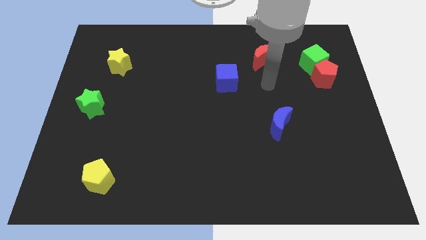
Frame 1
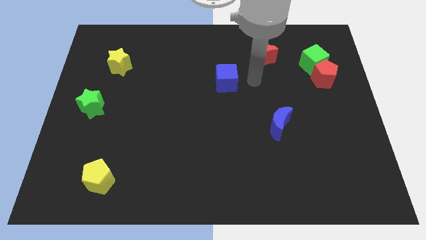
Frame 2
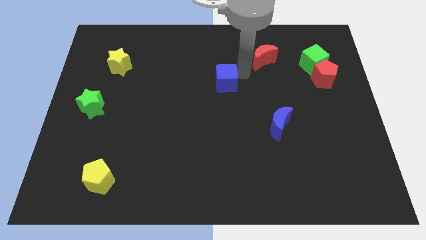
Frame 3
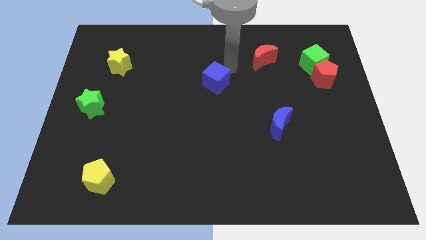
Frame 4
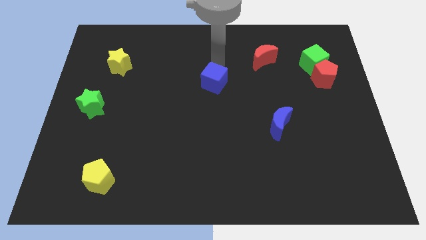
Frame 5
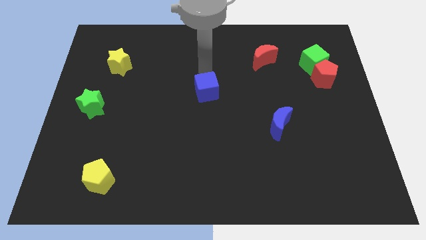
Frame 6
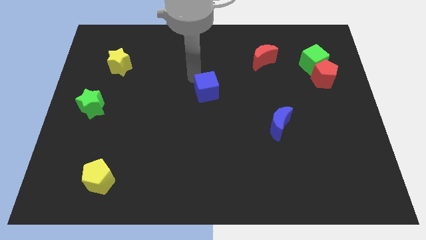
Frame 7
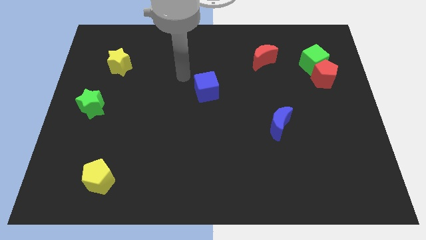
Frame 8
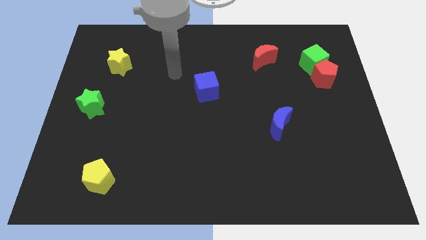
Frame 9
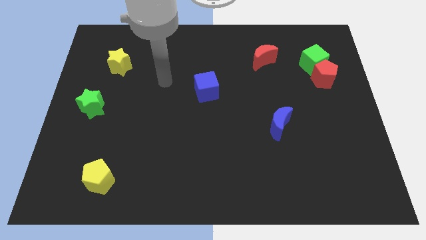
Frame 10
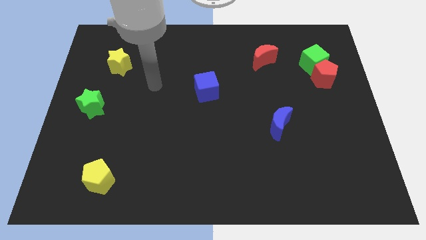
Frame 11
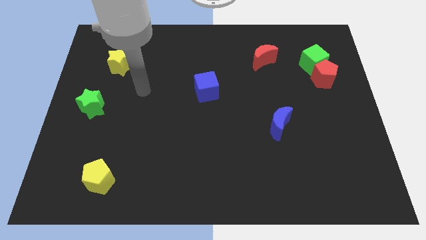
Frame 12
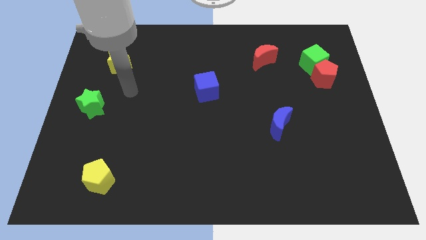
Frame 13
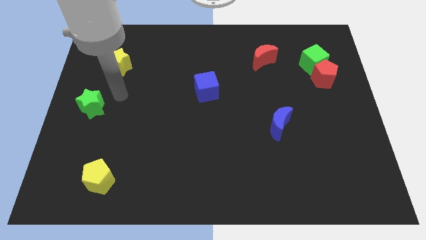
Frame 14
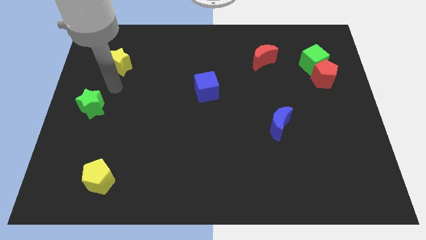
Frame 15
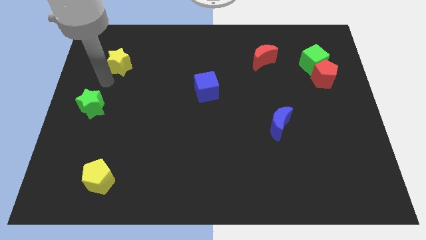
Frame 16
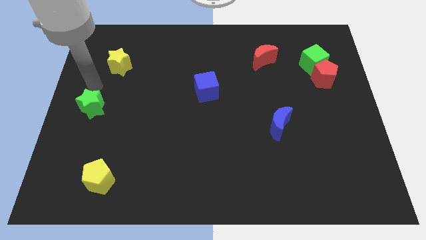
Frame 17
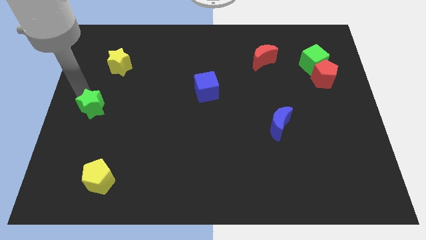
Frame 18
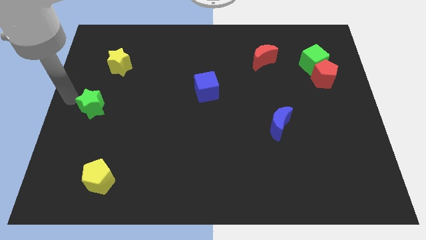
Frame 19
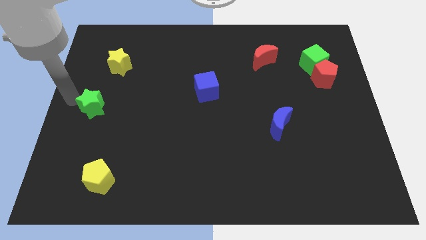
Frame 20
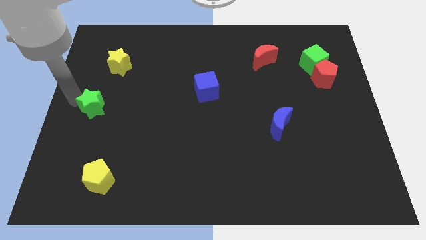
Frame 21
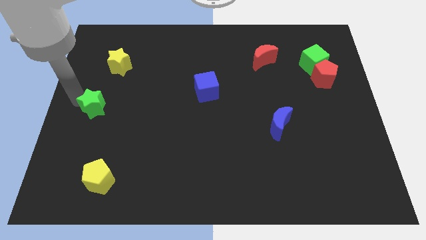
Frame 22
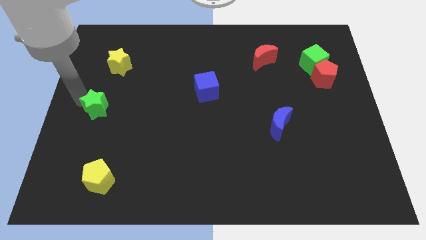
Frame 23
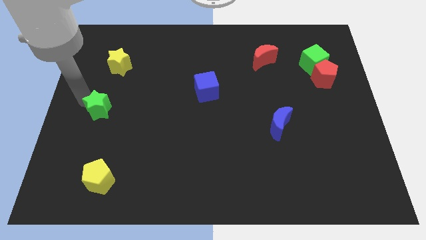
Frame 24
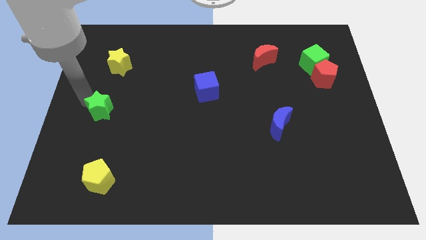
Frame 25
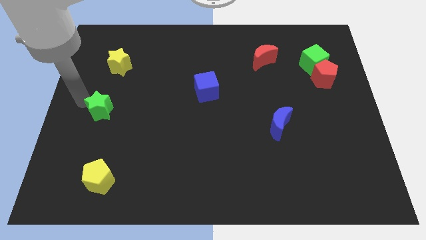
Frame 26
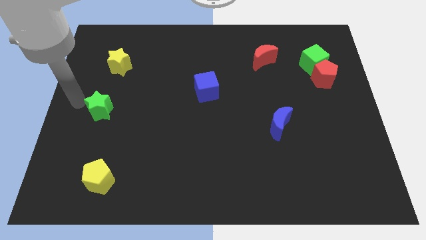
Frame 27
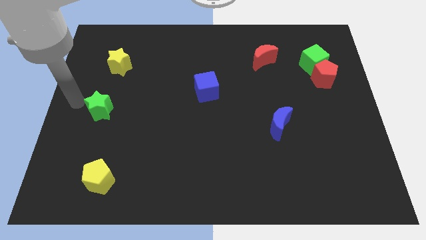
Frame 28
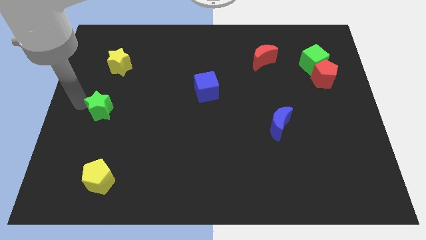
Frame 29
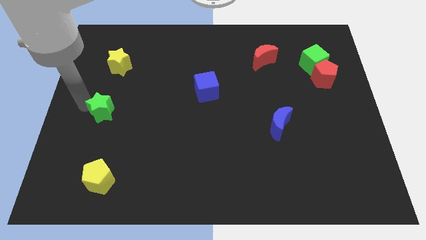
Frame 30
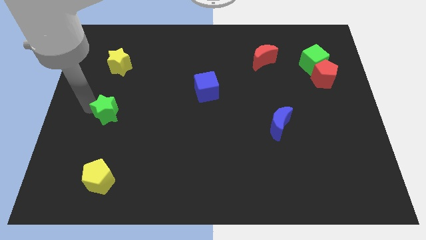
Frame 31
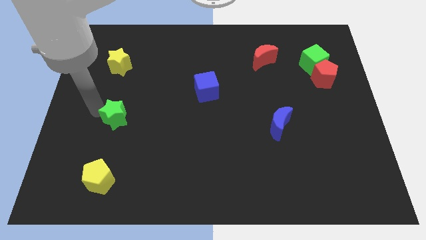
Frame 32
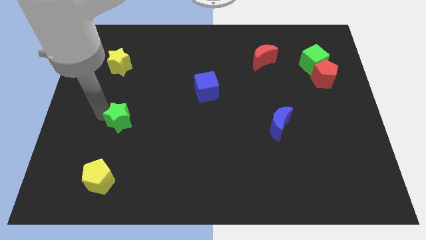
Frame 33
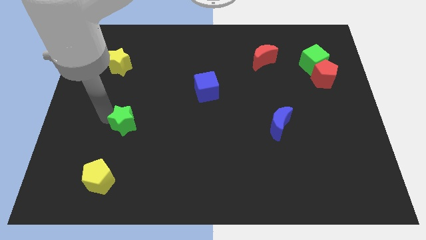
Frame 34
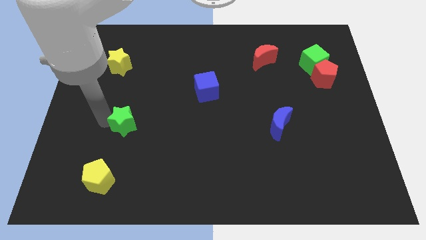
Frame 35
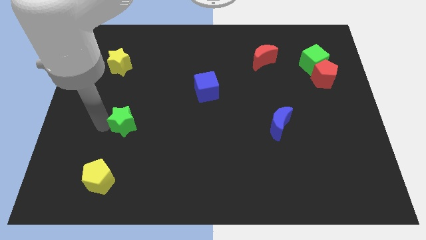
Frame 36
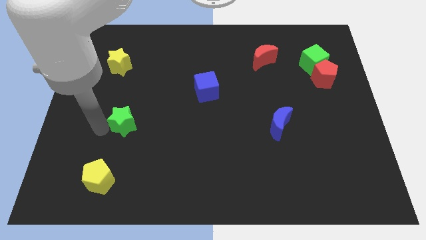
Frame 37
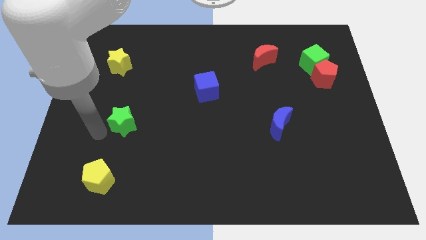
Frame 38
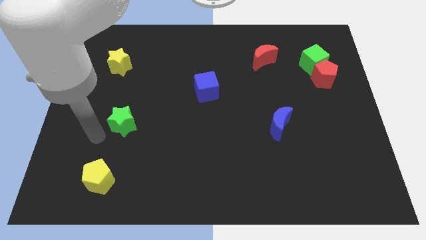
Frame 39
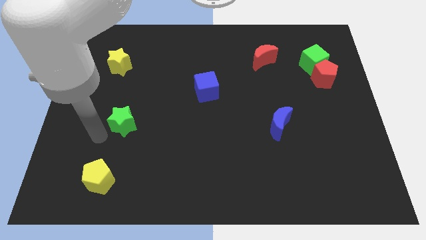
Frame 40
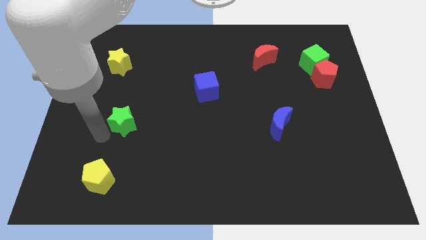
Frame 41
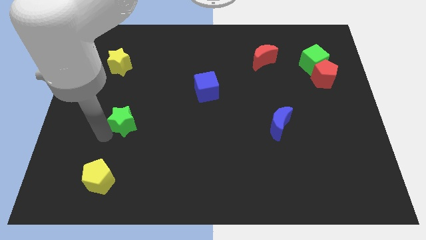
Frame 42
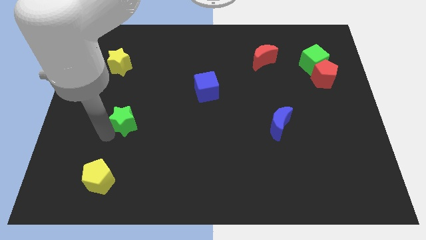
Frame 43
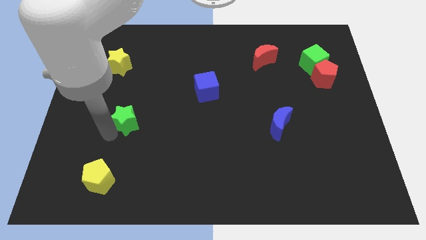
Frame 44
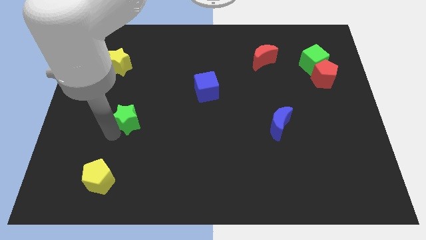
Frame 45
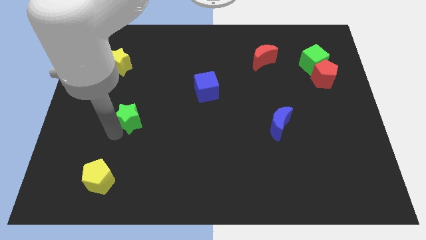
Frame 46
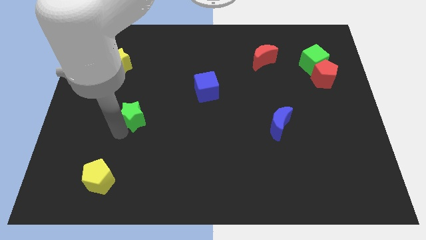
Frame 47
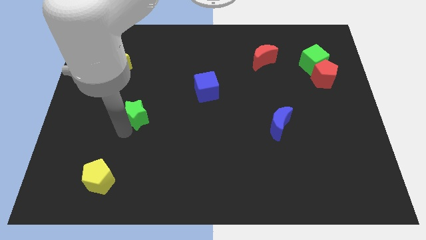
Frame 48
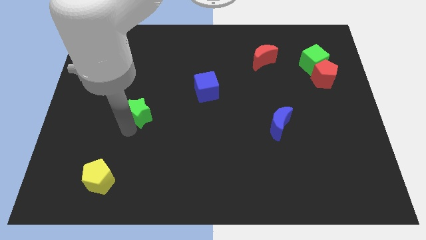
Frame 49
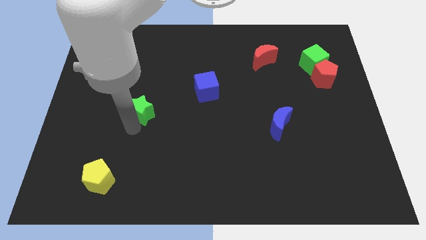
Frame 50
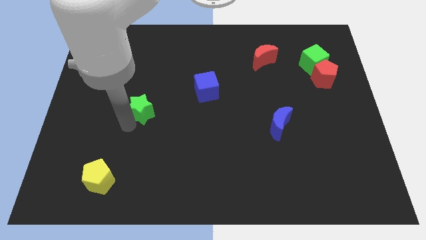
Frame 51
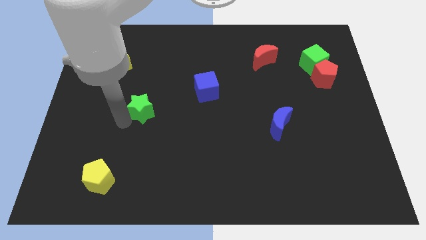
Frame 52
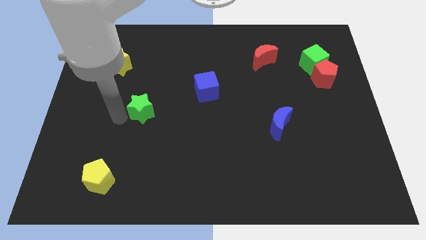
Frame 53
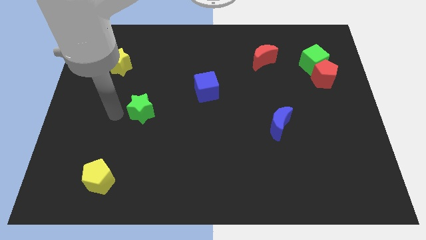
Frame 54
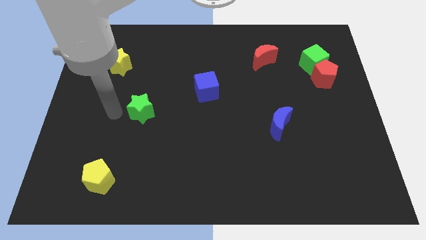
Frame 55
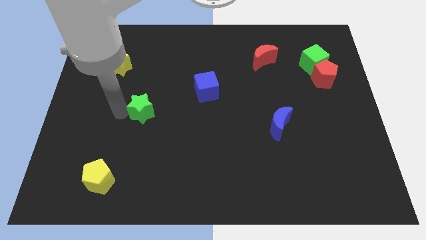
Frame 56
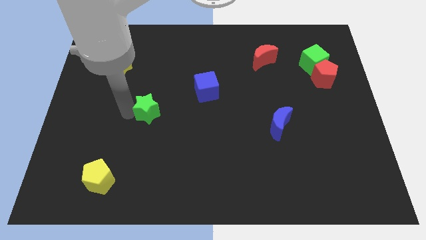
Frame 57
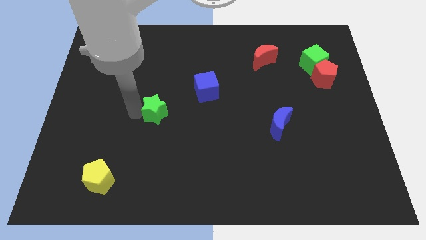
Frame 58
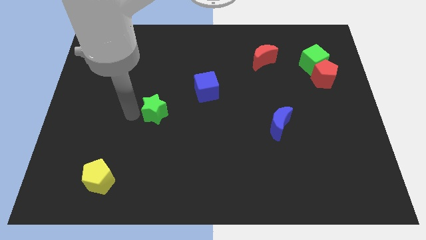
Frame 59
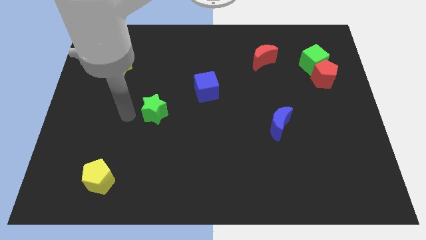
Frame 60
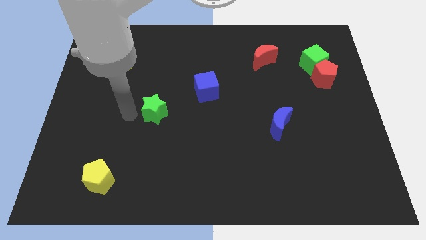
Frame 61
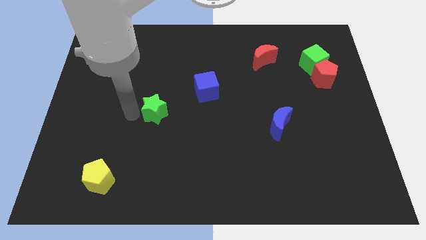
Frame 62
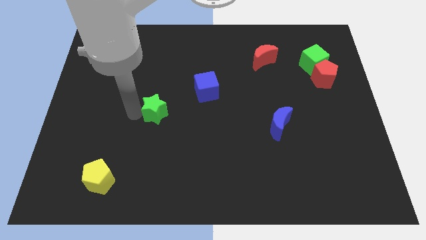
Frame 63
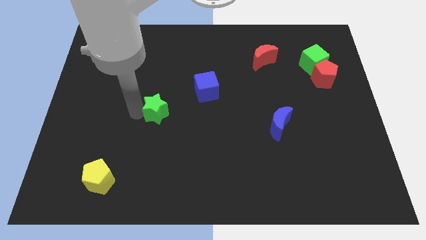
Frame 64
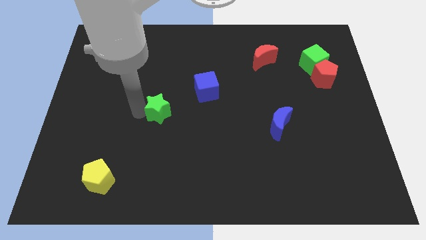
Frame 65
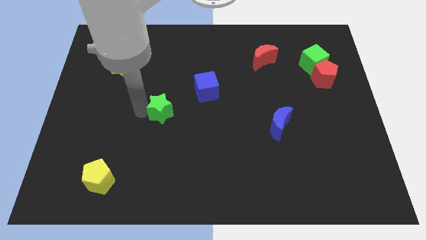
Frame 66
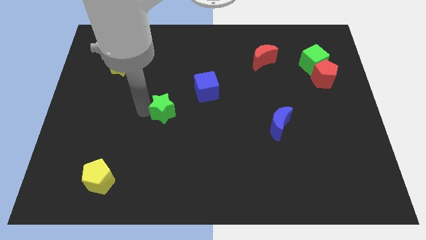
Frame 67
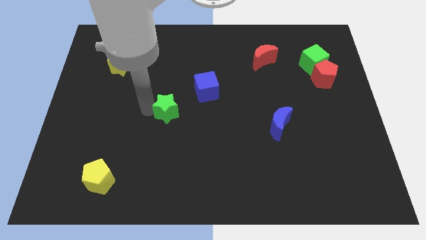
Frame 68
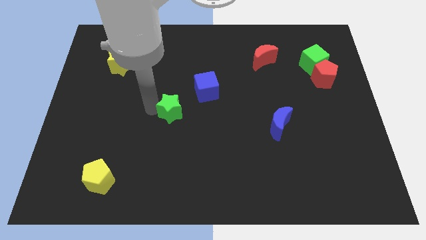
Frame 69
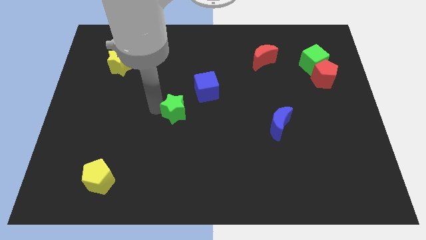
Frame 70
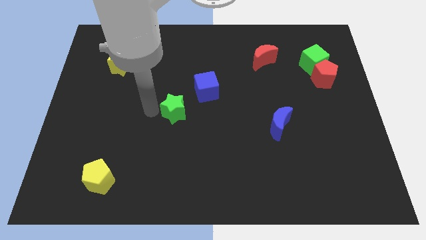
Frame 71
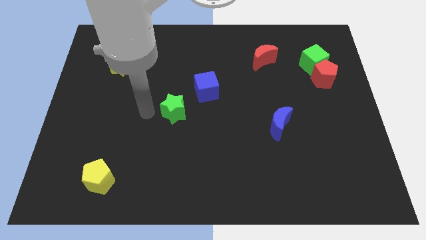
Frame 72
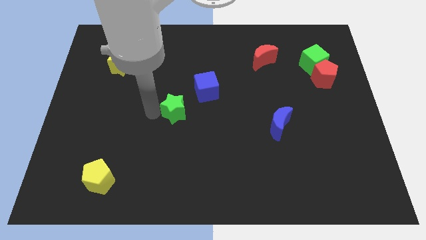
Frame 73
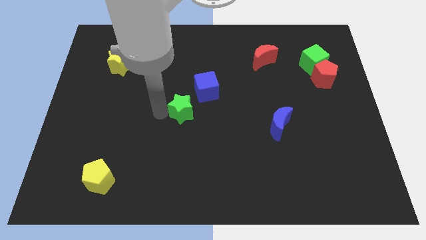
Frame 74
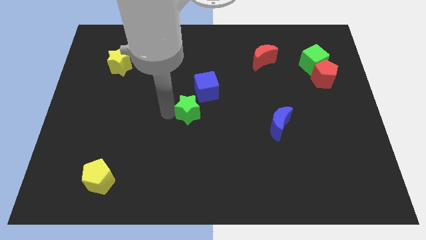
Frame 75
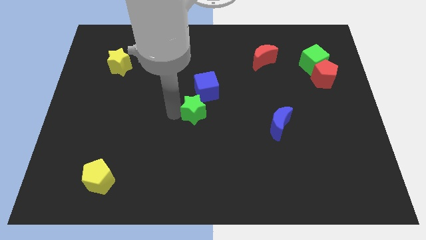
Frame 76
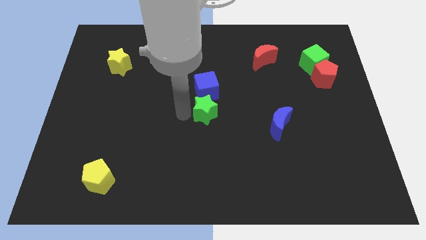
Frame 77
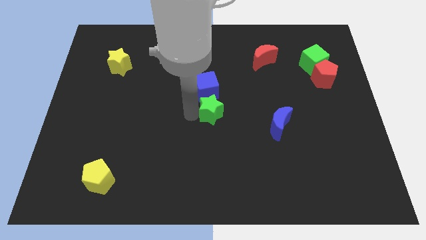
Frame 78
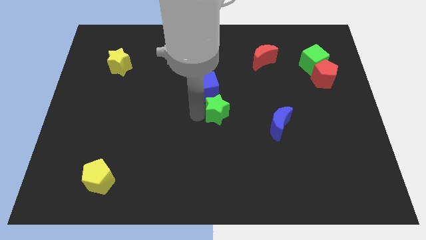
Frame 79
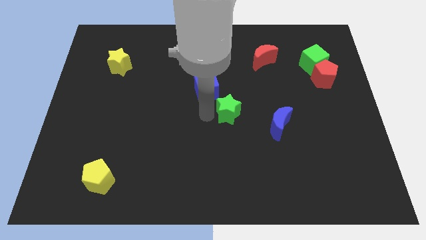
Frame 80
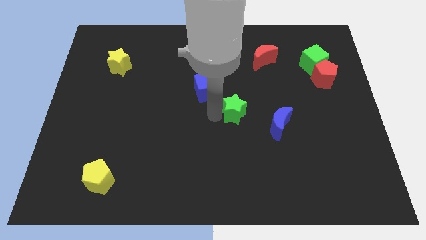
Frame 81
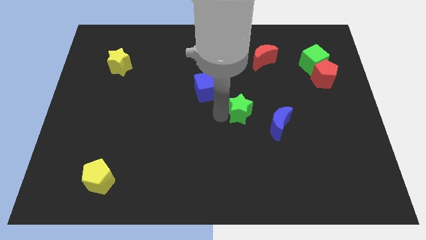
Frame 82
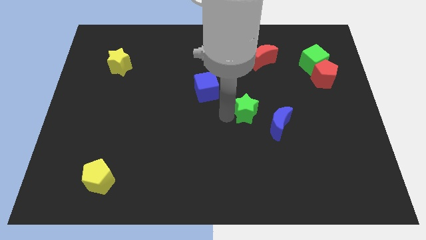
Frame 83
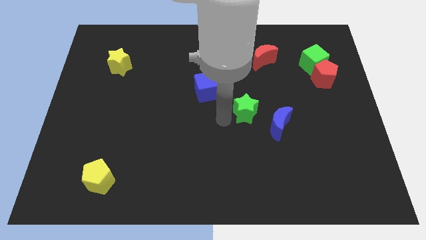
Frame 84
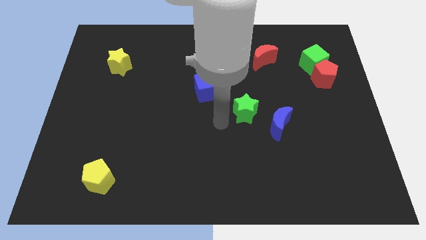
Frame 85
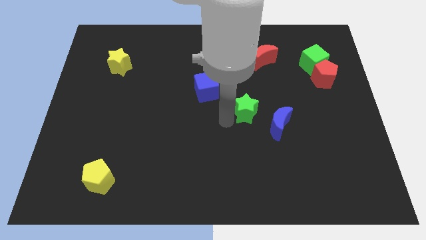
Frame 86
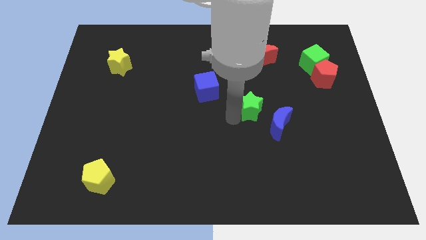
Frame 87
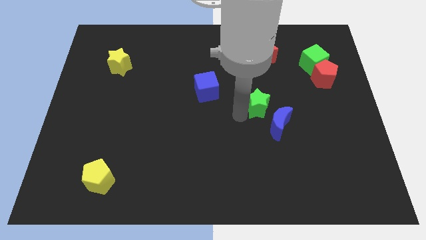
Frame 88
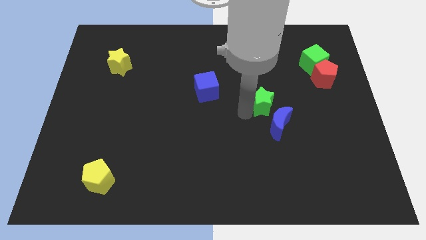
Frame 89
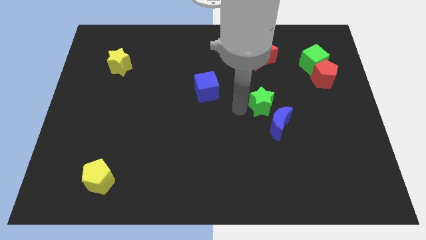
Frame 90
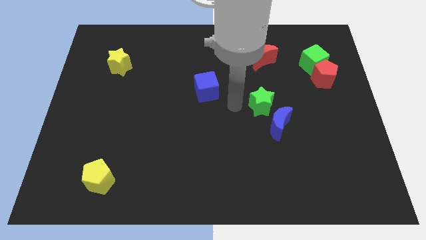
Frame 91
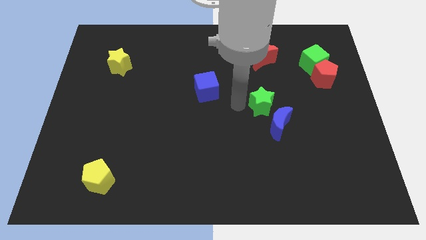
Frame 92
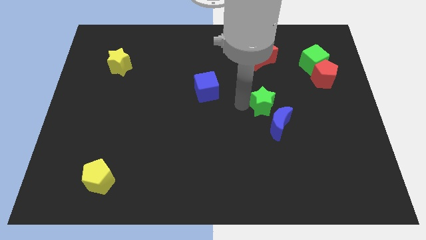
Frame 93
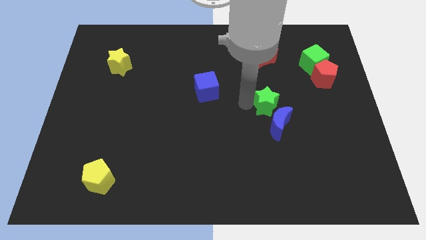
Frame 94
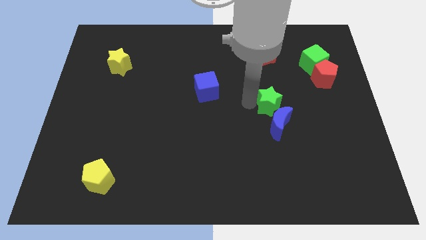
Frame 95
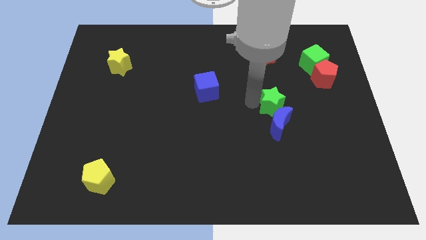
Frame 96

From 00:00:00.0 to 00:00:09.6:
slide the green star to the top right of the blue moon
